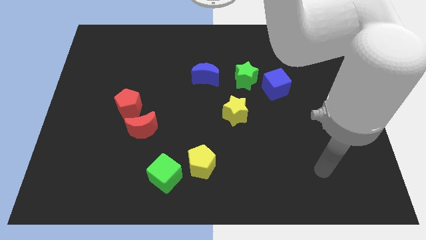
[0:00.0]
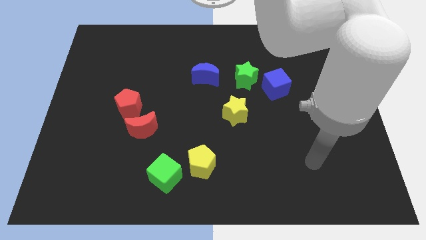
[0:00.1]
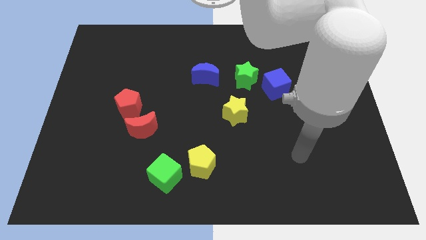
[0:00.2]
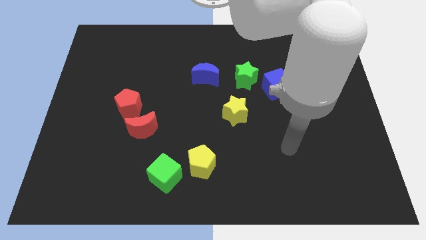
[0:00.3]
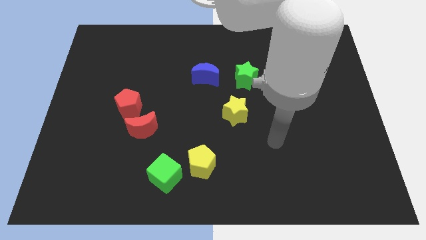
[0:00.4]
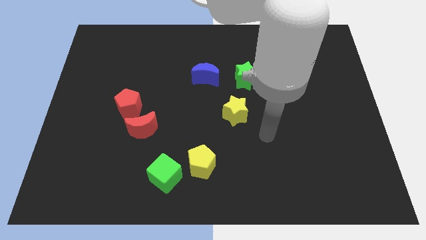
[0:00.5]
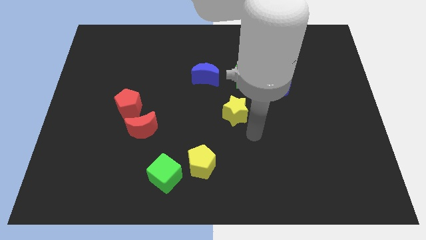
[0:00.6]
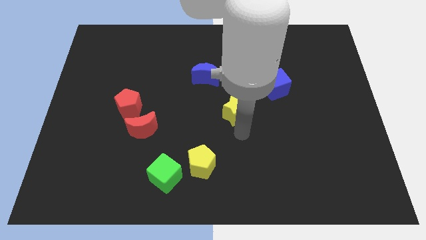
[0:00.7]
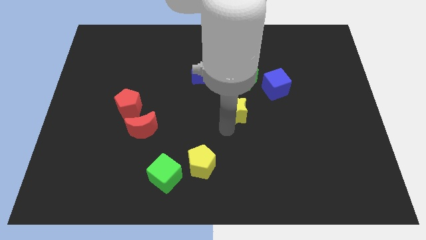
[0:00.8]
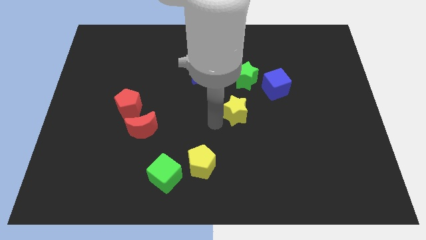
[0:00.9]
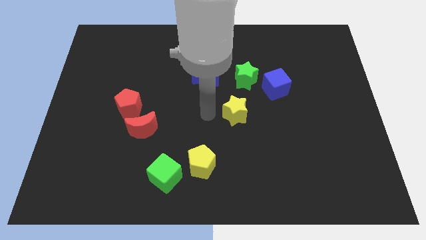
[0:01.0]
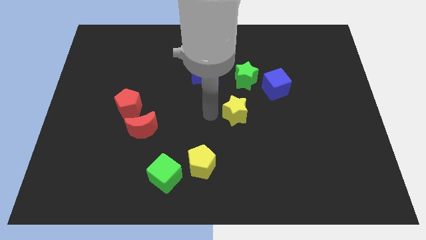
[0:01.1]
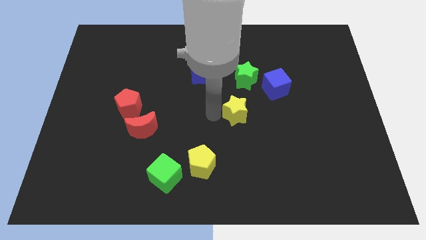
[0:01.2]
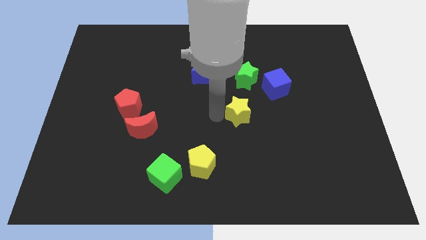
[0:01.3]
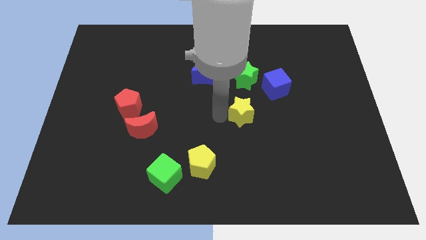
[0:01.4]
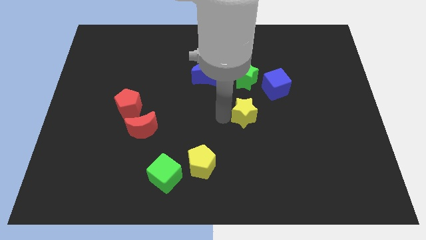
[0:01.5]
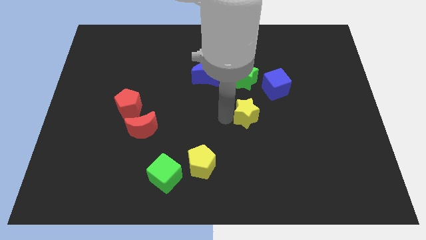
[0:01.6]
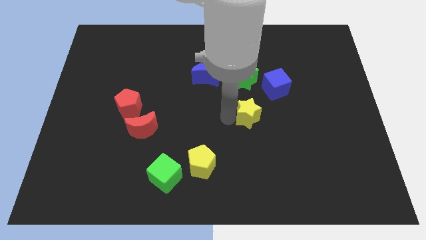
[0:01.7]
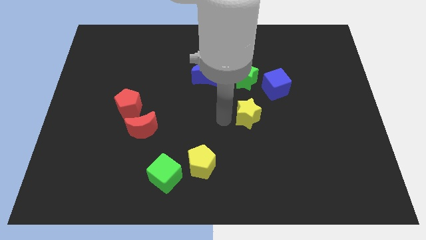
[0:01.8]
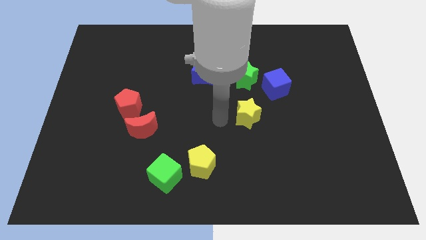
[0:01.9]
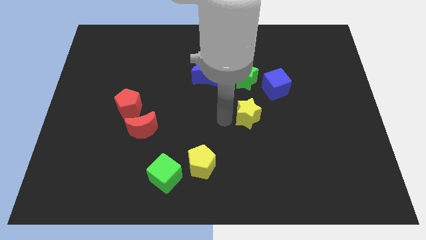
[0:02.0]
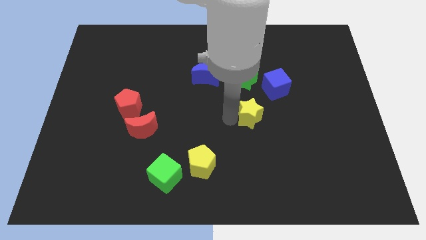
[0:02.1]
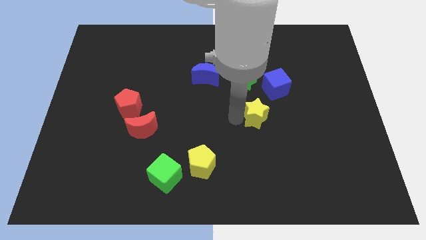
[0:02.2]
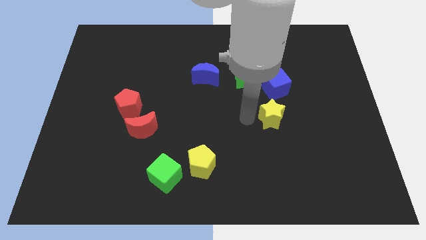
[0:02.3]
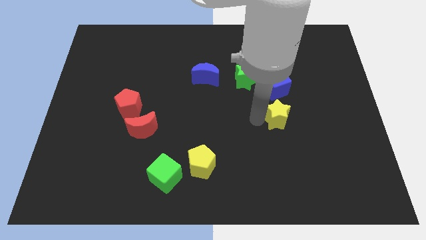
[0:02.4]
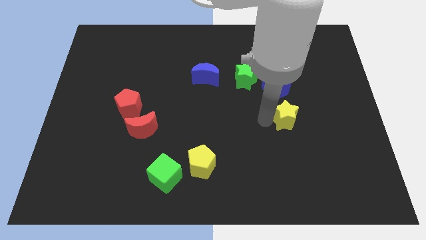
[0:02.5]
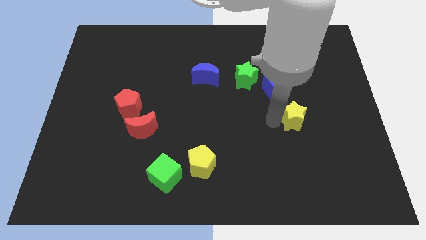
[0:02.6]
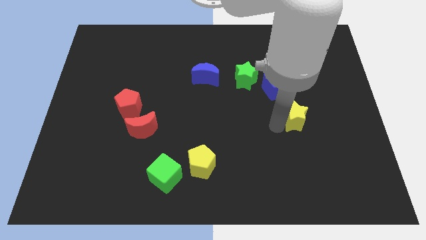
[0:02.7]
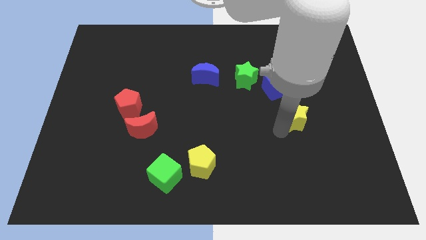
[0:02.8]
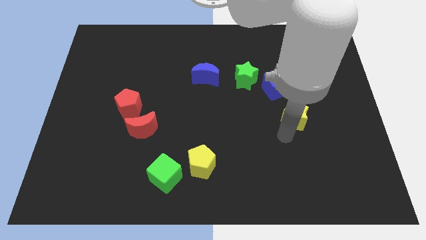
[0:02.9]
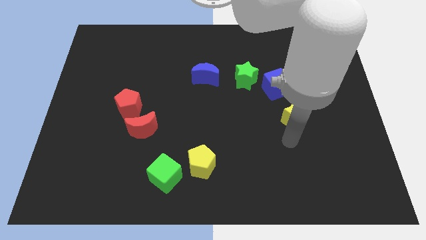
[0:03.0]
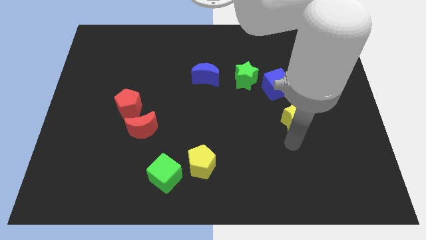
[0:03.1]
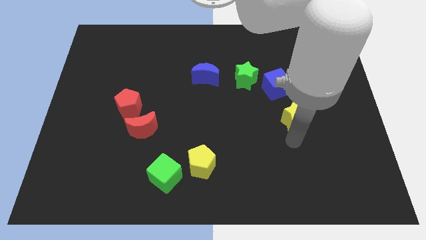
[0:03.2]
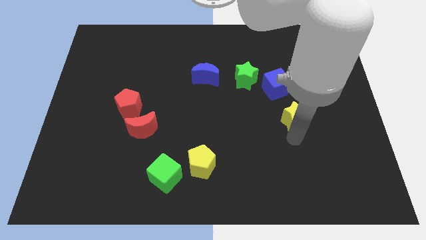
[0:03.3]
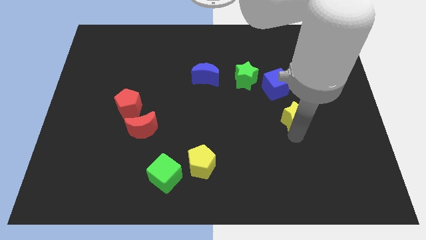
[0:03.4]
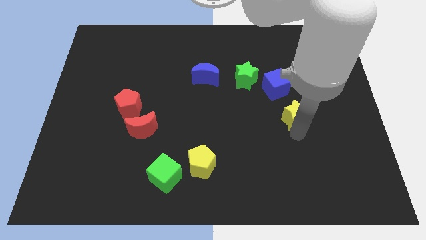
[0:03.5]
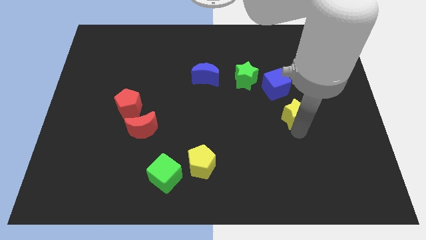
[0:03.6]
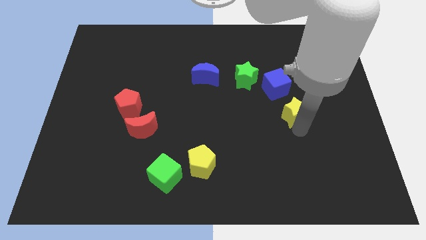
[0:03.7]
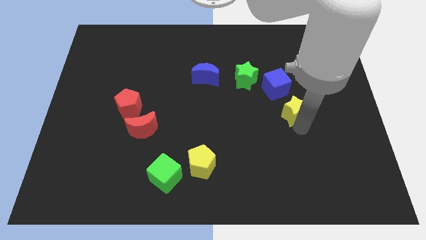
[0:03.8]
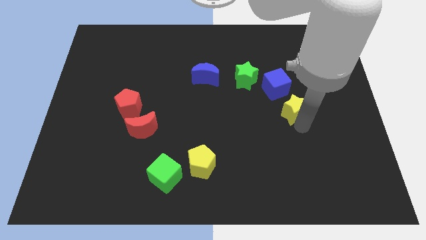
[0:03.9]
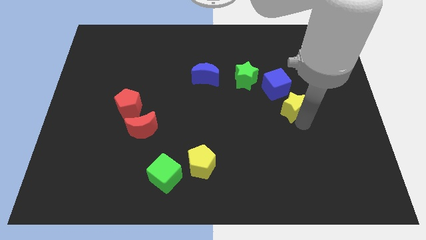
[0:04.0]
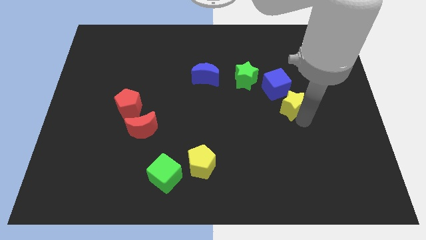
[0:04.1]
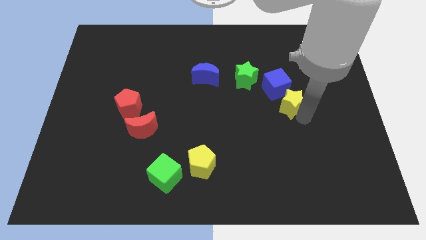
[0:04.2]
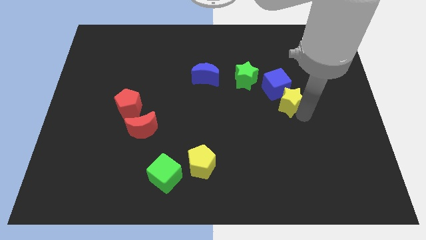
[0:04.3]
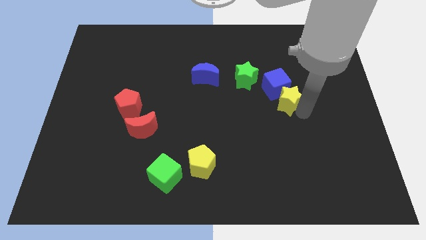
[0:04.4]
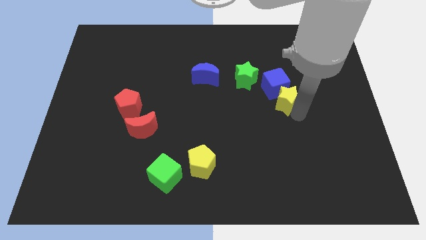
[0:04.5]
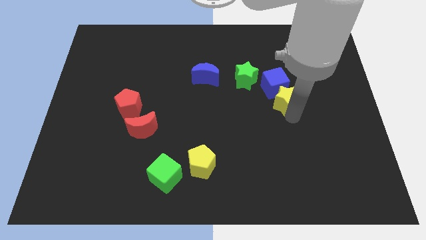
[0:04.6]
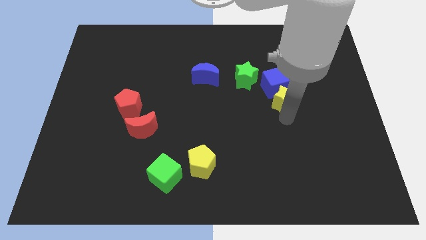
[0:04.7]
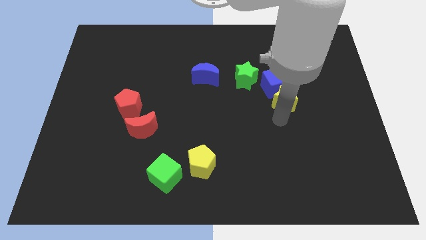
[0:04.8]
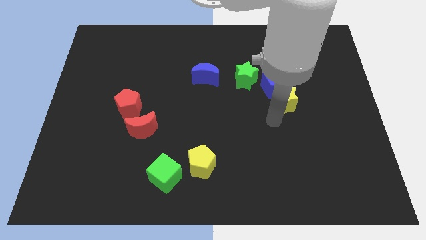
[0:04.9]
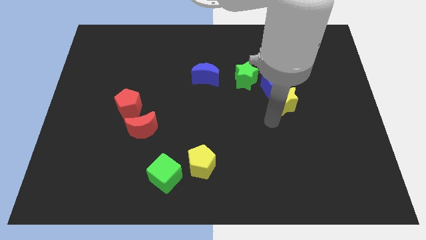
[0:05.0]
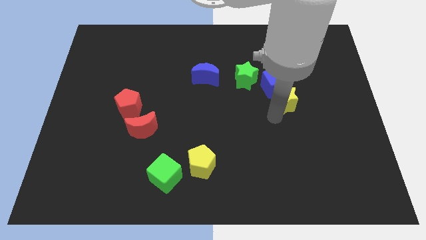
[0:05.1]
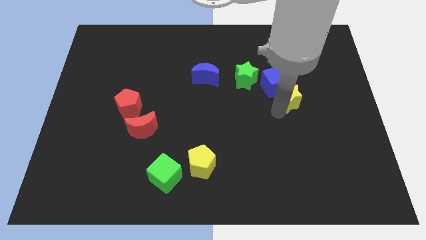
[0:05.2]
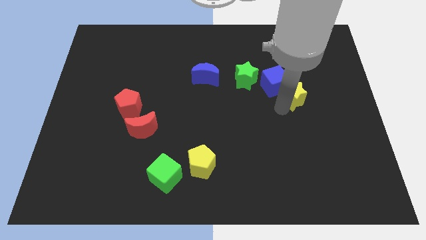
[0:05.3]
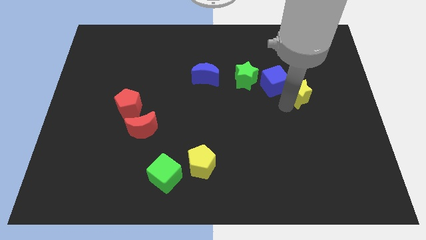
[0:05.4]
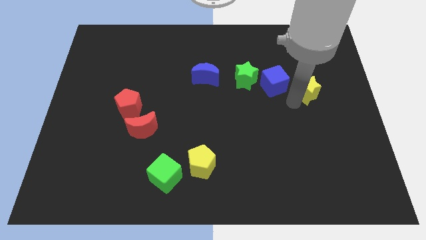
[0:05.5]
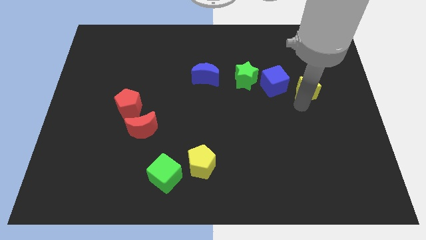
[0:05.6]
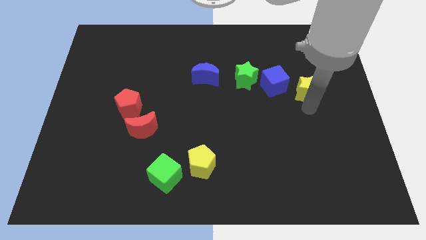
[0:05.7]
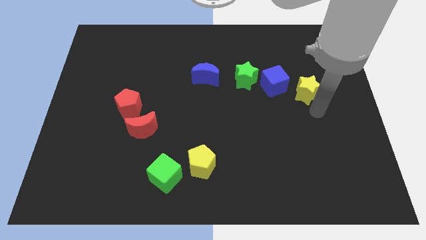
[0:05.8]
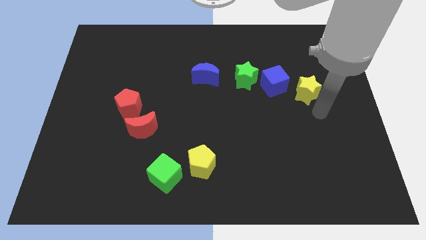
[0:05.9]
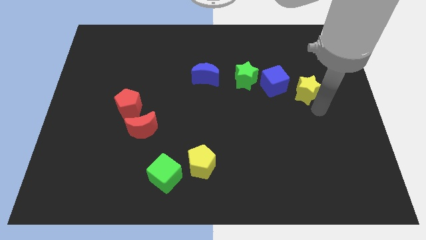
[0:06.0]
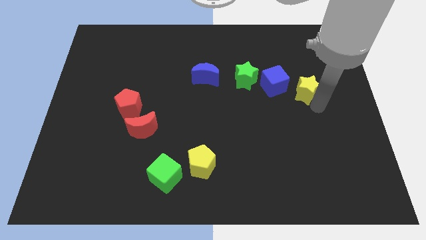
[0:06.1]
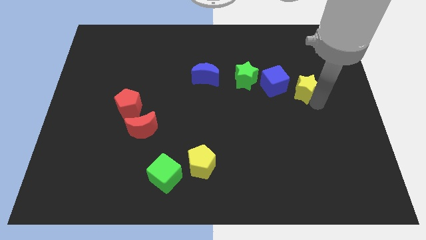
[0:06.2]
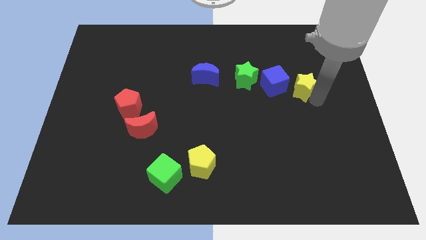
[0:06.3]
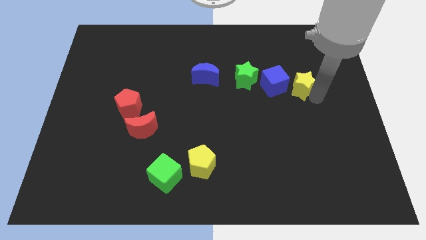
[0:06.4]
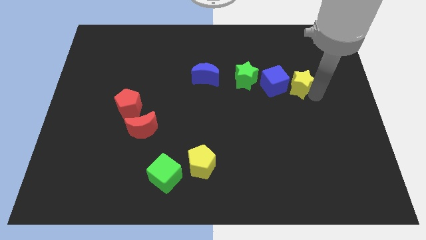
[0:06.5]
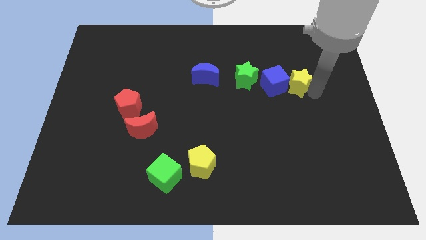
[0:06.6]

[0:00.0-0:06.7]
put the yellow star diagonally up and to the right of the blue cube
